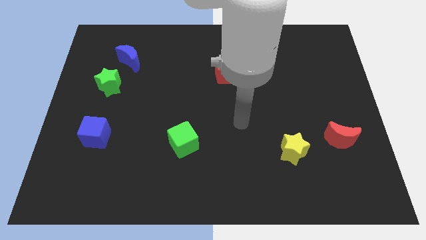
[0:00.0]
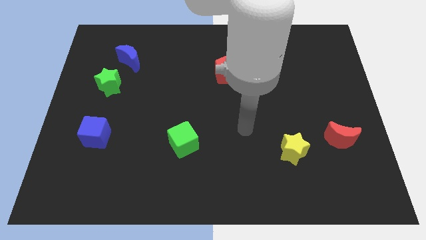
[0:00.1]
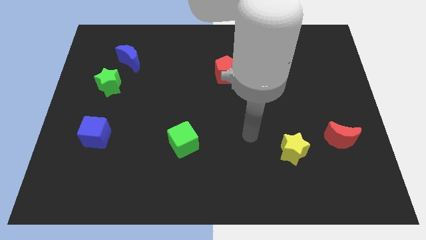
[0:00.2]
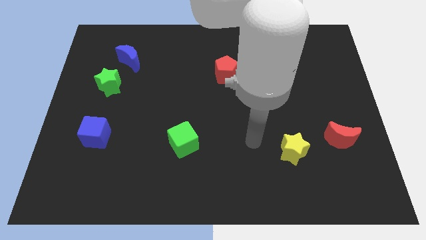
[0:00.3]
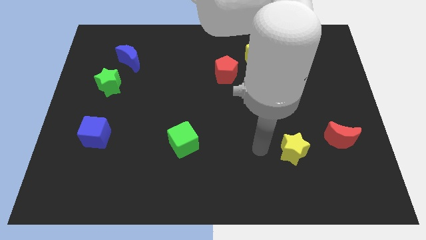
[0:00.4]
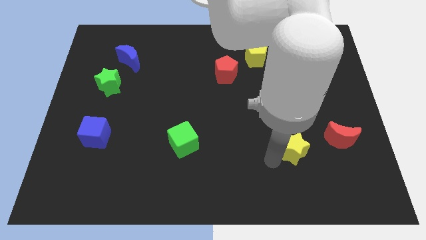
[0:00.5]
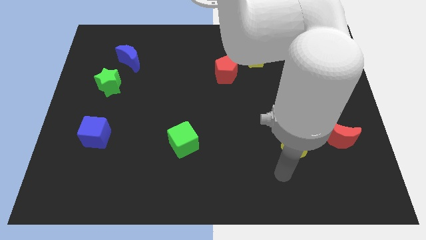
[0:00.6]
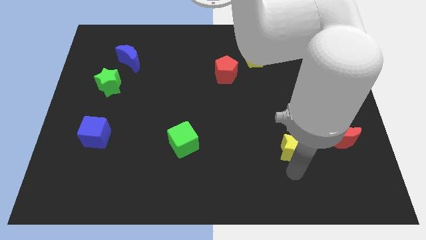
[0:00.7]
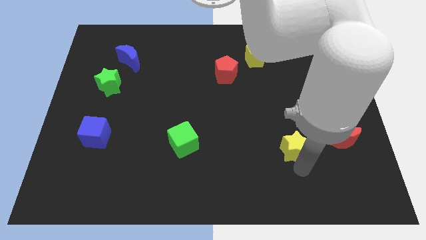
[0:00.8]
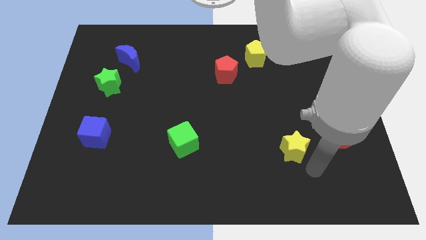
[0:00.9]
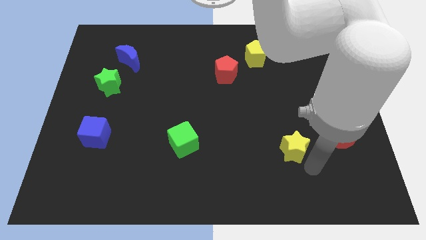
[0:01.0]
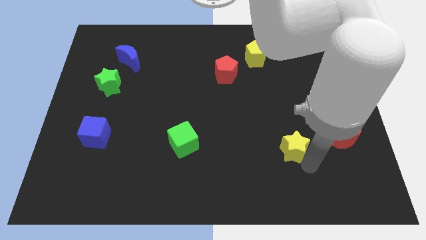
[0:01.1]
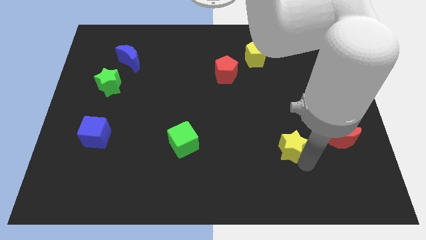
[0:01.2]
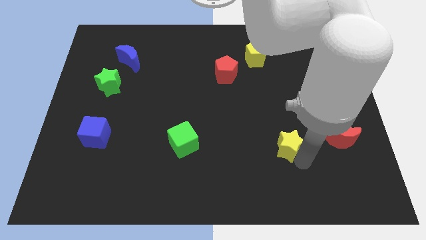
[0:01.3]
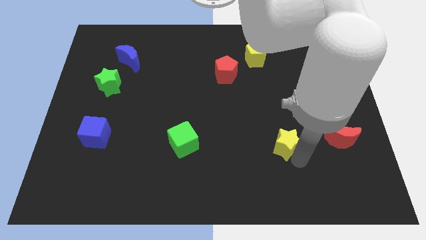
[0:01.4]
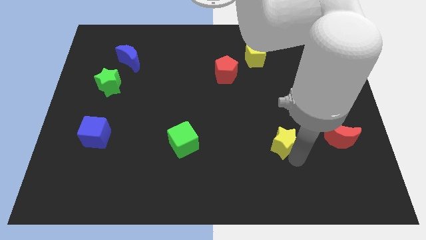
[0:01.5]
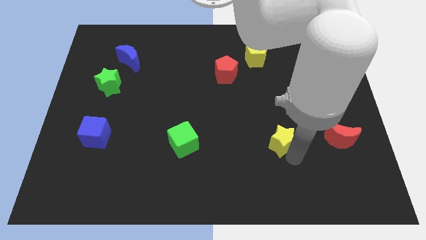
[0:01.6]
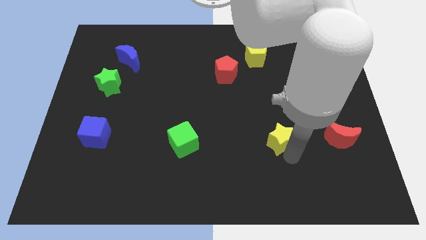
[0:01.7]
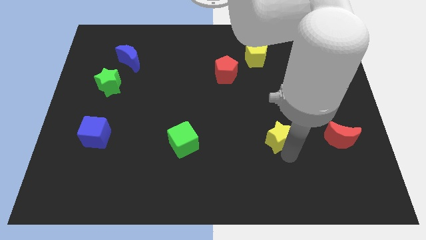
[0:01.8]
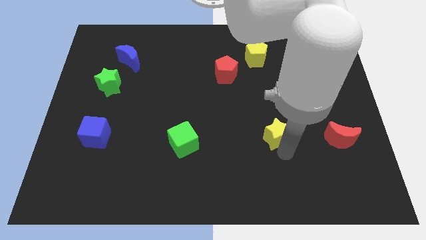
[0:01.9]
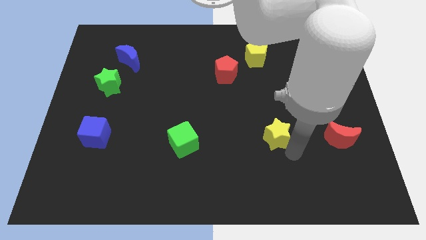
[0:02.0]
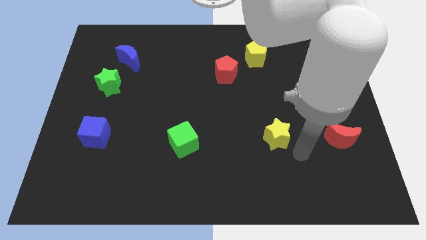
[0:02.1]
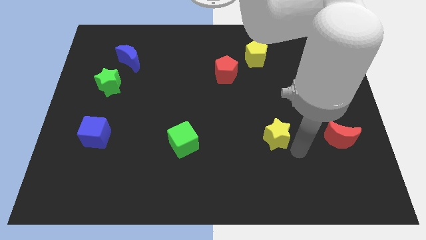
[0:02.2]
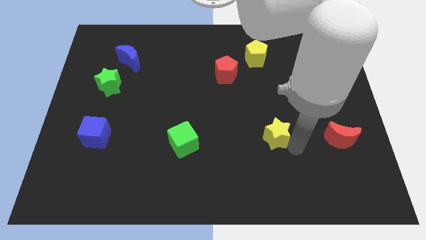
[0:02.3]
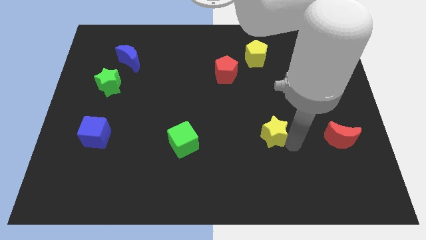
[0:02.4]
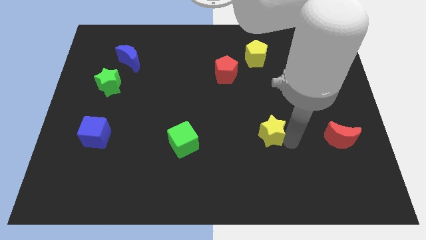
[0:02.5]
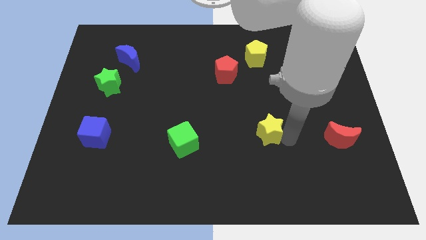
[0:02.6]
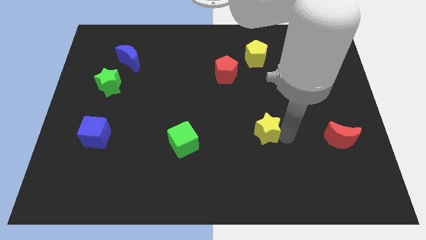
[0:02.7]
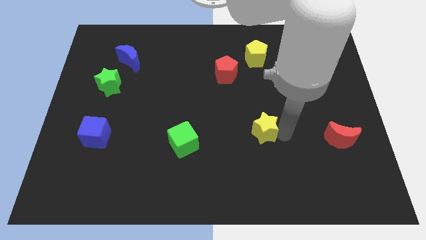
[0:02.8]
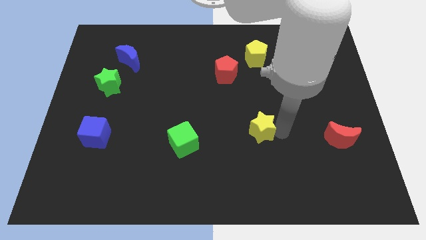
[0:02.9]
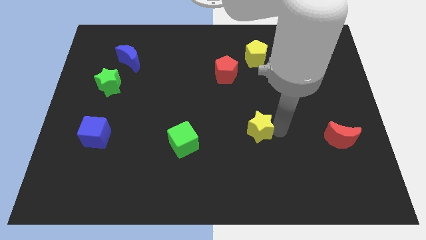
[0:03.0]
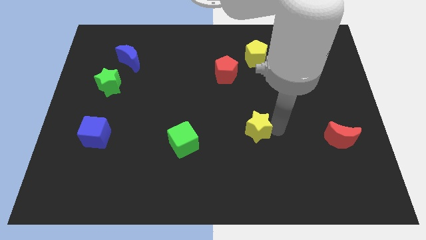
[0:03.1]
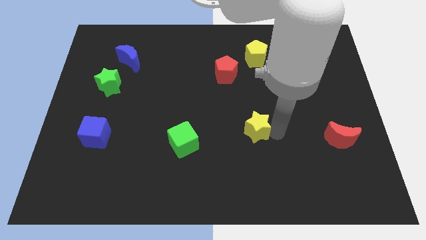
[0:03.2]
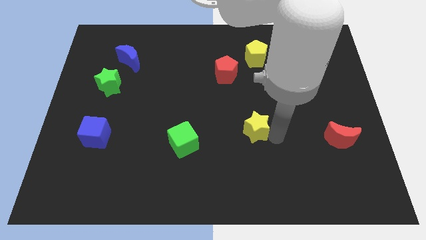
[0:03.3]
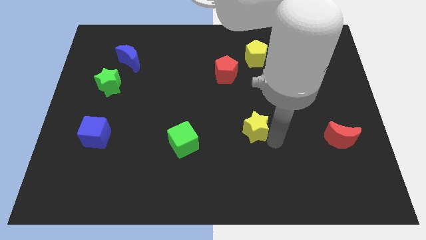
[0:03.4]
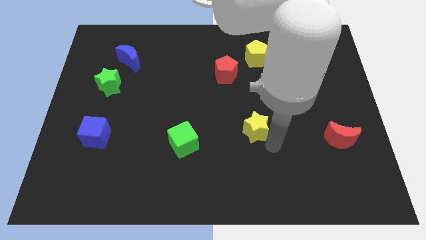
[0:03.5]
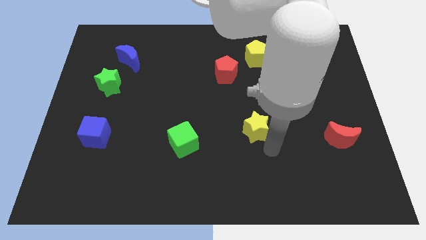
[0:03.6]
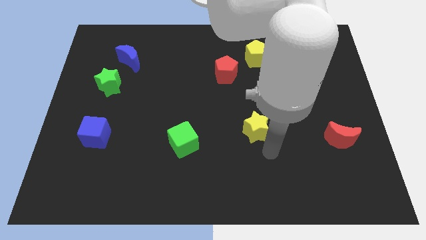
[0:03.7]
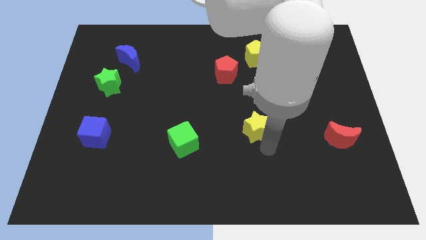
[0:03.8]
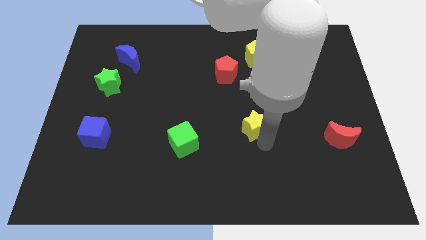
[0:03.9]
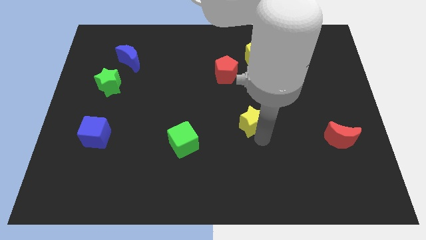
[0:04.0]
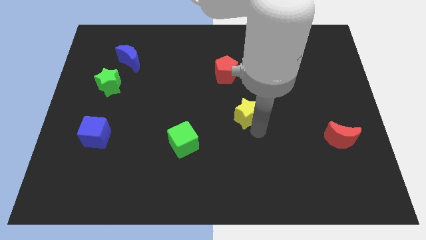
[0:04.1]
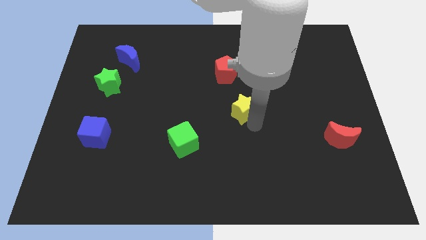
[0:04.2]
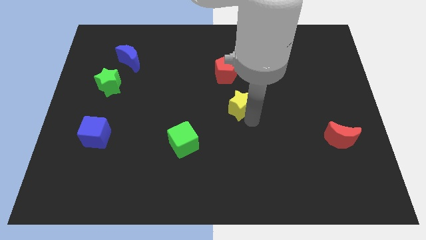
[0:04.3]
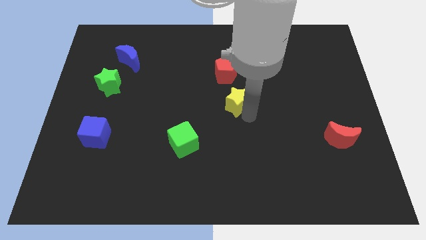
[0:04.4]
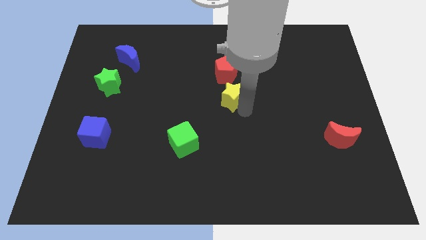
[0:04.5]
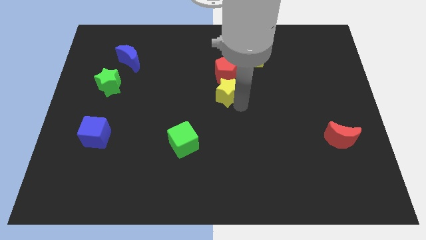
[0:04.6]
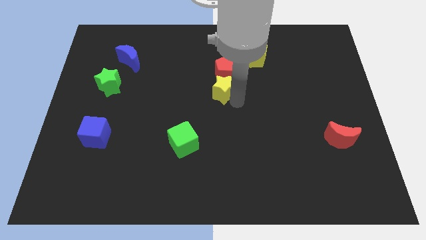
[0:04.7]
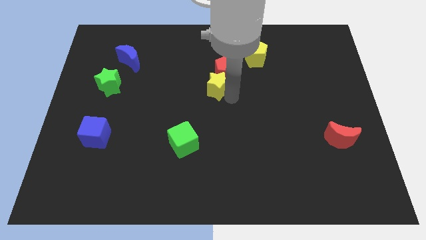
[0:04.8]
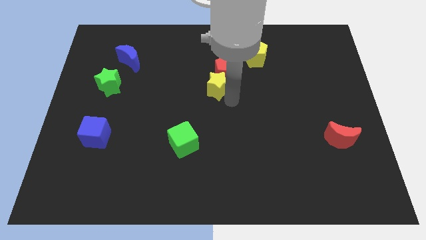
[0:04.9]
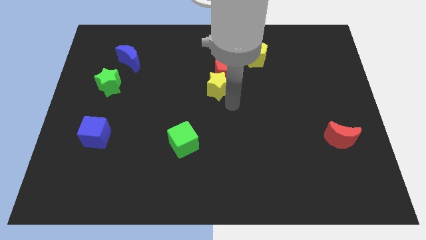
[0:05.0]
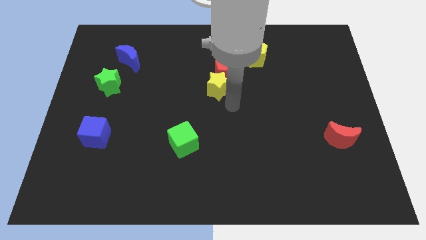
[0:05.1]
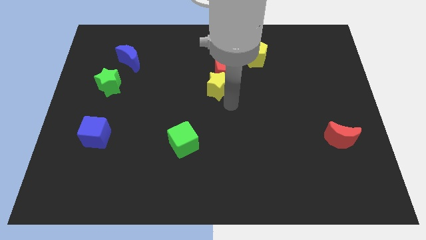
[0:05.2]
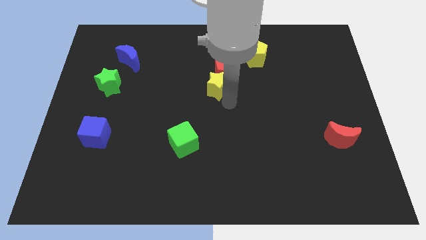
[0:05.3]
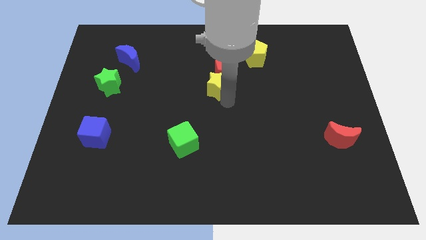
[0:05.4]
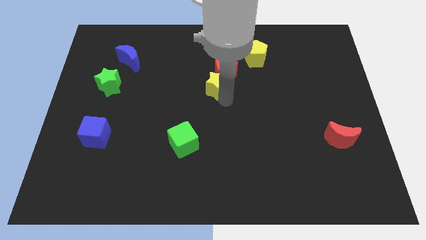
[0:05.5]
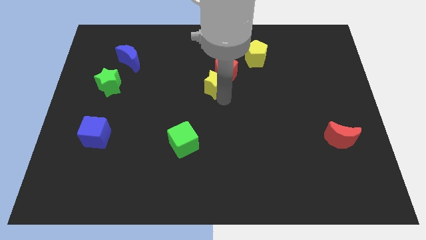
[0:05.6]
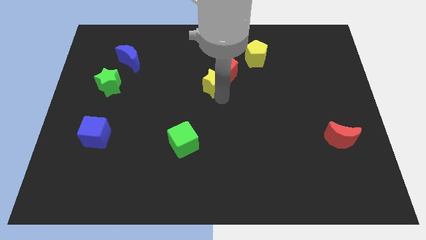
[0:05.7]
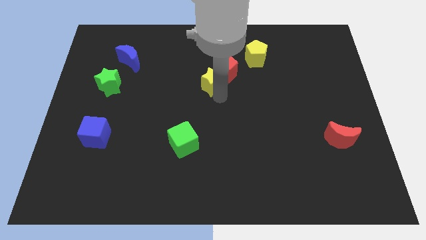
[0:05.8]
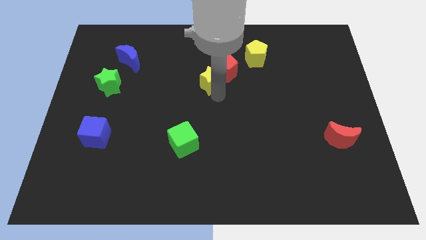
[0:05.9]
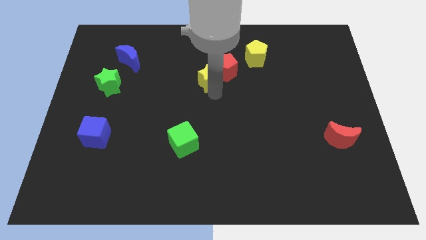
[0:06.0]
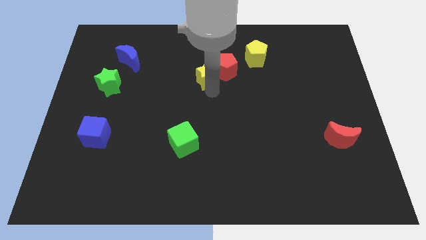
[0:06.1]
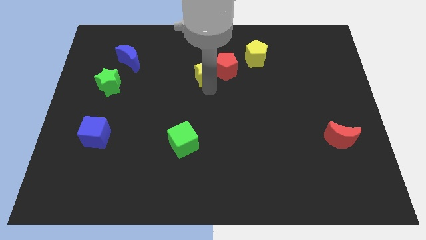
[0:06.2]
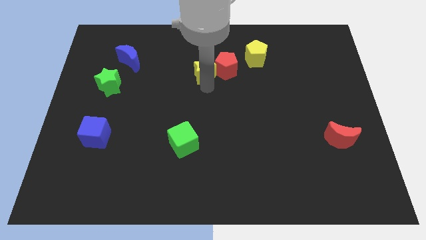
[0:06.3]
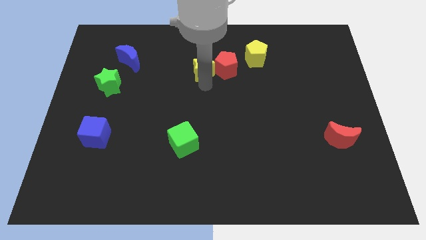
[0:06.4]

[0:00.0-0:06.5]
push the yellow star to the top left of the red pentagon

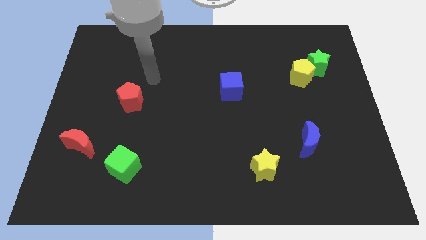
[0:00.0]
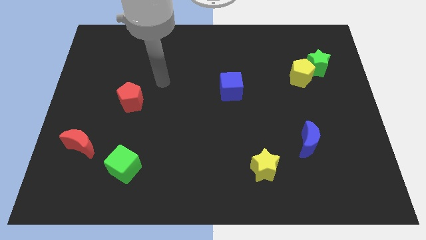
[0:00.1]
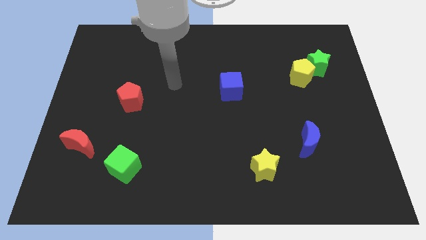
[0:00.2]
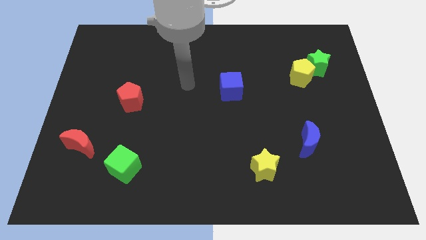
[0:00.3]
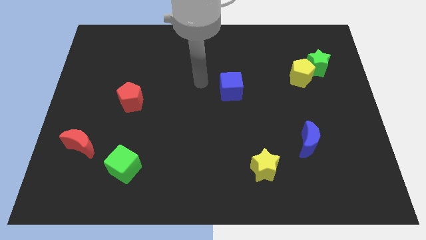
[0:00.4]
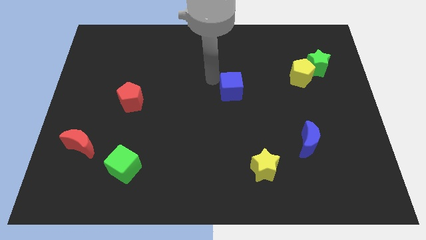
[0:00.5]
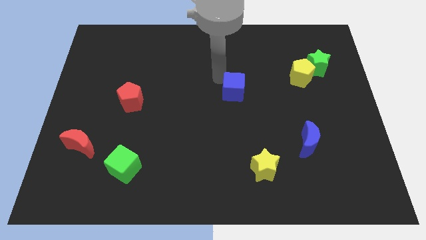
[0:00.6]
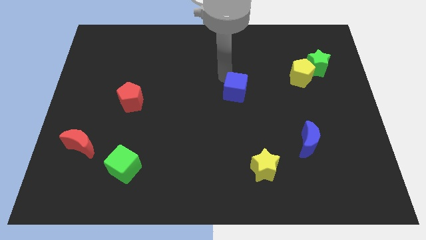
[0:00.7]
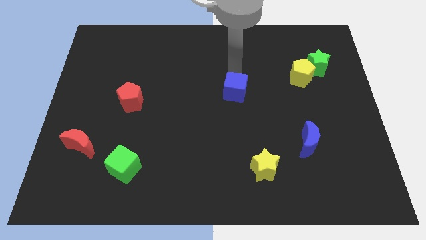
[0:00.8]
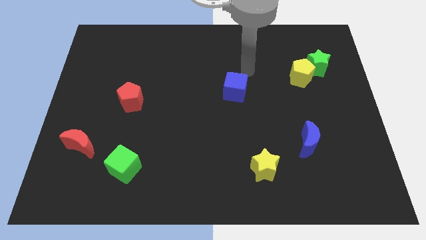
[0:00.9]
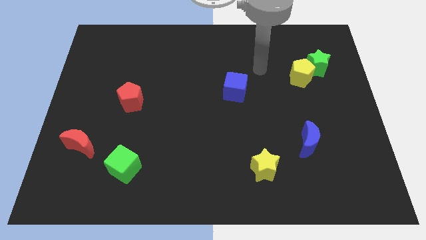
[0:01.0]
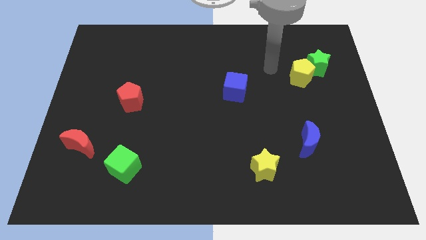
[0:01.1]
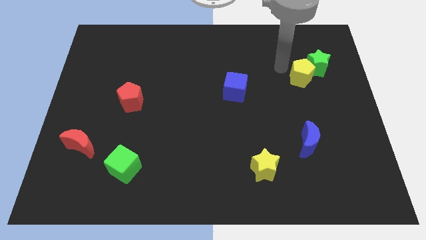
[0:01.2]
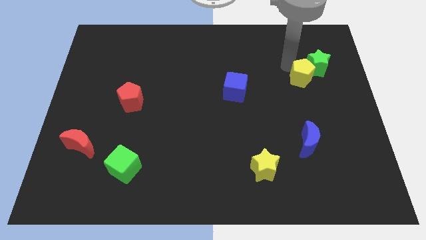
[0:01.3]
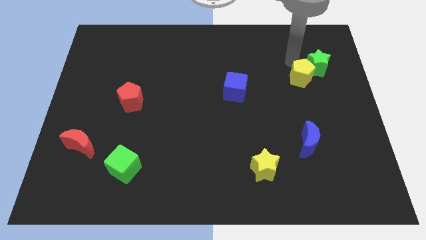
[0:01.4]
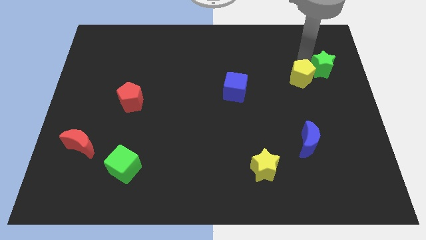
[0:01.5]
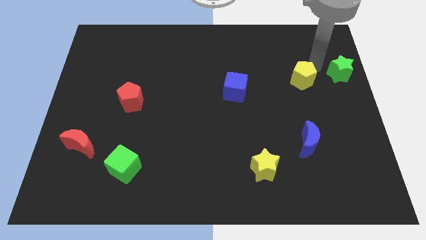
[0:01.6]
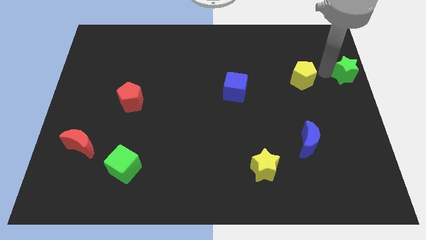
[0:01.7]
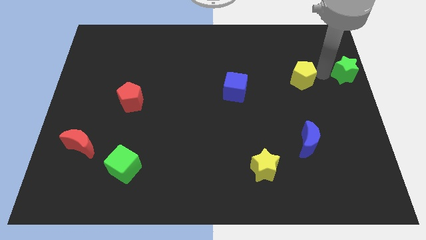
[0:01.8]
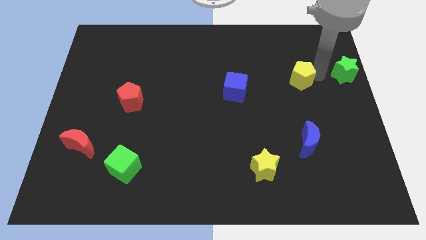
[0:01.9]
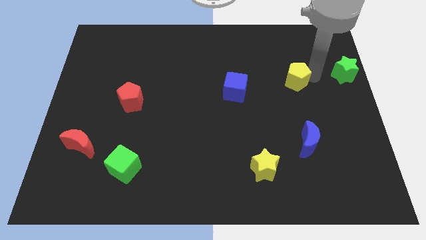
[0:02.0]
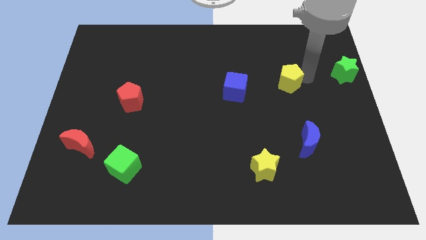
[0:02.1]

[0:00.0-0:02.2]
slide the yellow pentagon to the right side of the blue cube
